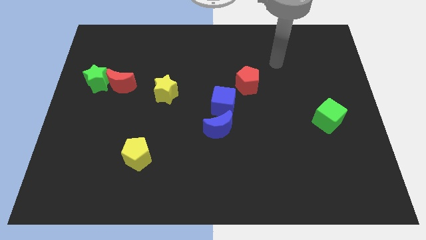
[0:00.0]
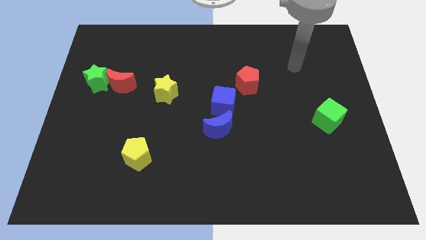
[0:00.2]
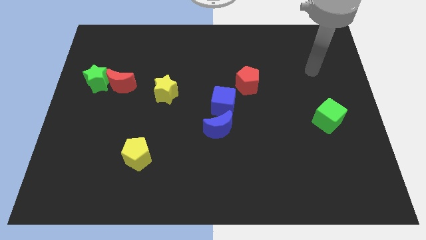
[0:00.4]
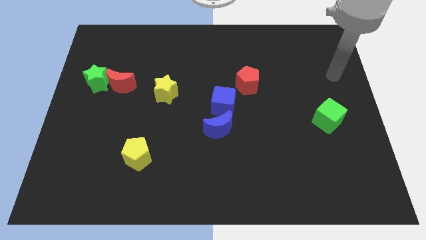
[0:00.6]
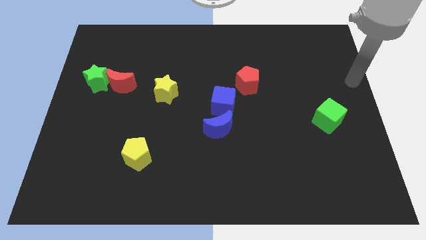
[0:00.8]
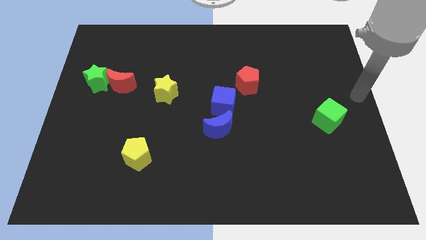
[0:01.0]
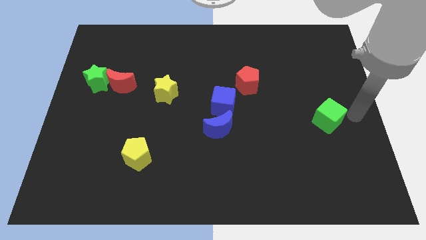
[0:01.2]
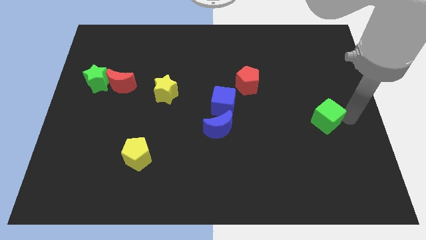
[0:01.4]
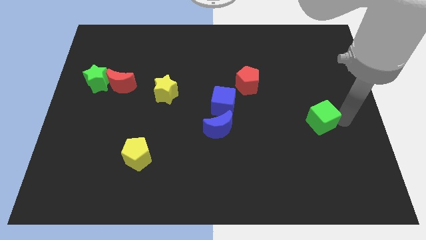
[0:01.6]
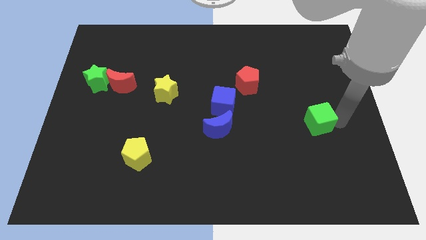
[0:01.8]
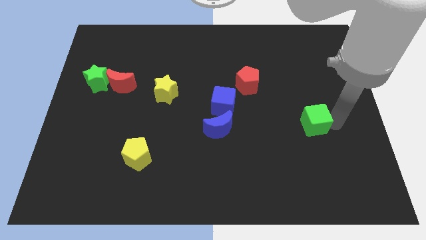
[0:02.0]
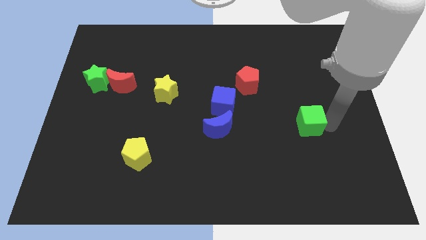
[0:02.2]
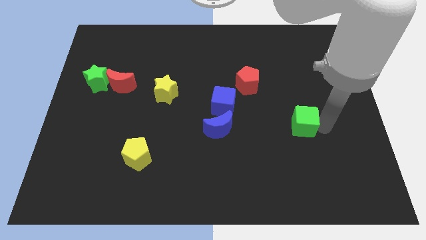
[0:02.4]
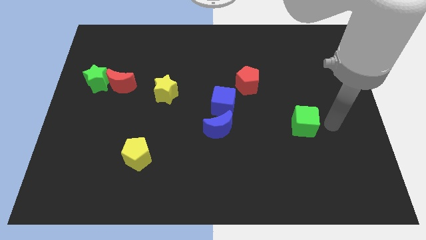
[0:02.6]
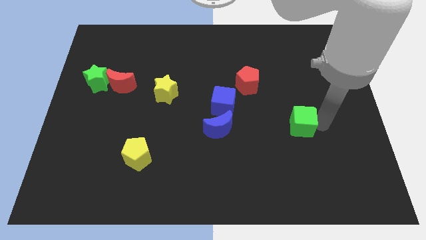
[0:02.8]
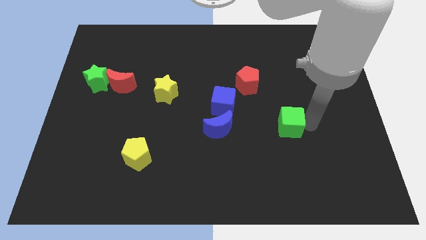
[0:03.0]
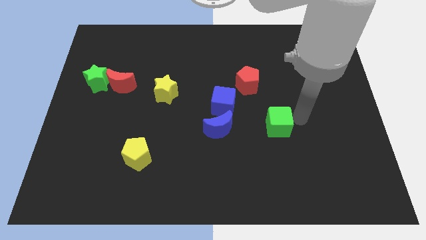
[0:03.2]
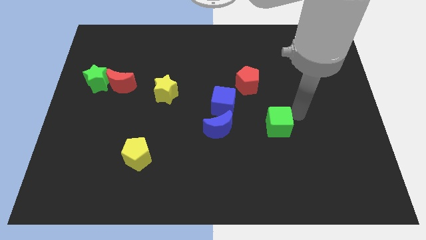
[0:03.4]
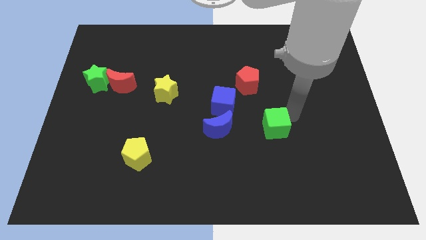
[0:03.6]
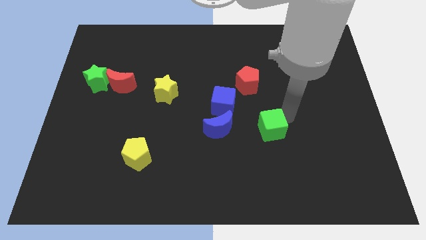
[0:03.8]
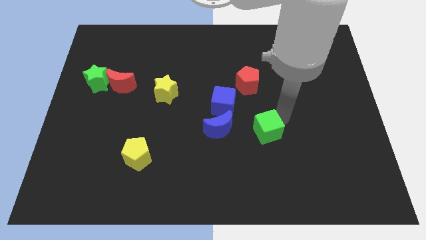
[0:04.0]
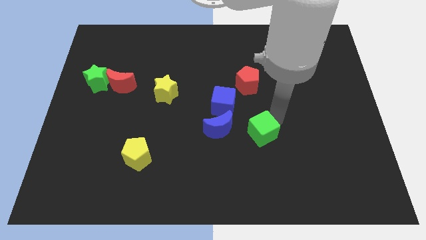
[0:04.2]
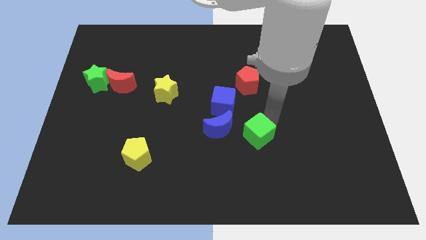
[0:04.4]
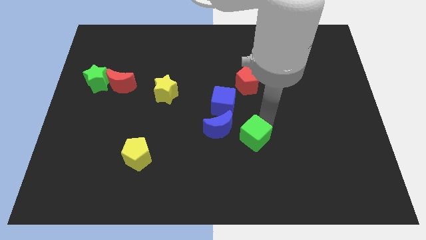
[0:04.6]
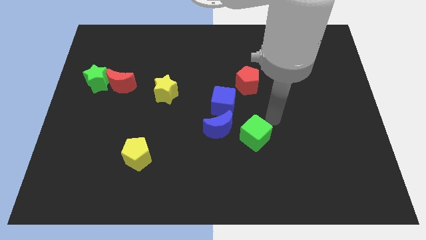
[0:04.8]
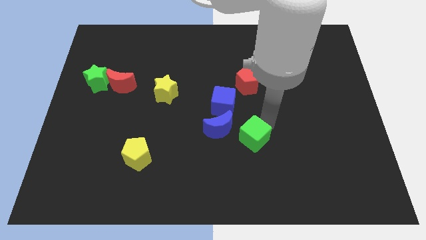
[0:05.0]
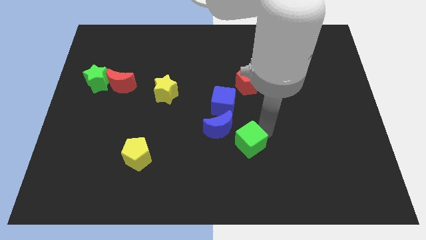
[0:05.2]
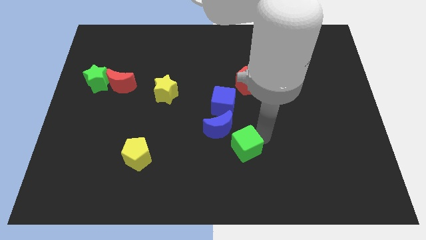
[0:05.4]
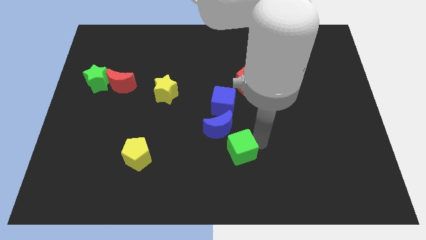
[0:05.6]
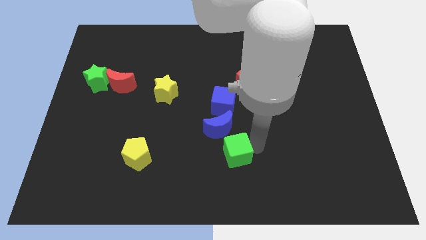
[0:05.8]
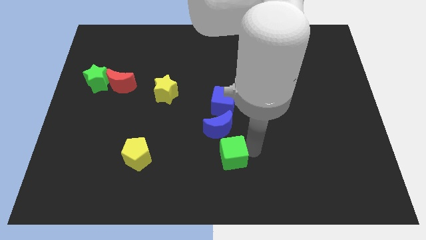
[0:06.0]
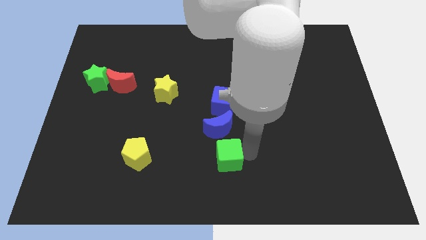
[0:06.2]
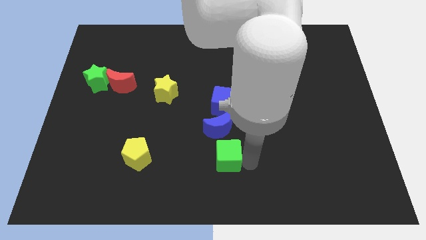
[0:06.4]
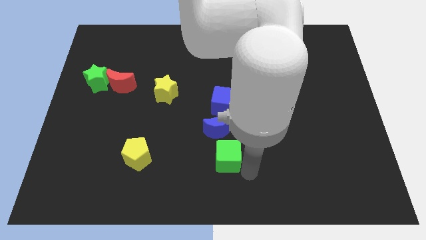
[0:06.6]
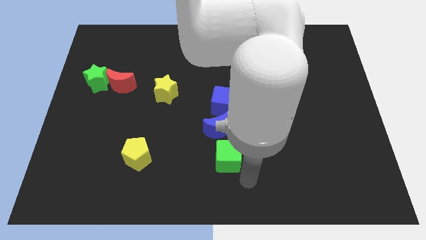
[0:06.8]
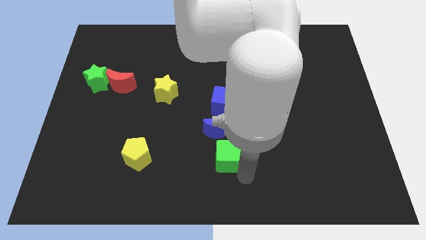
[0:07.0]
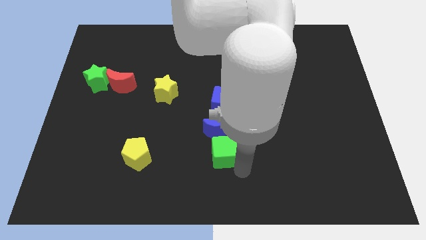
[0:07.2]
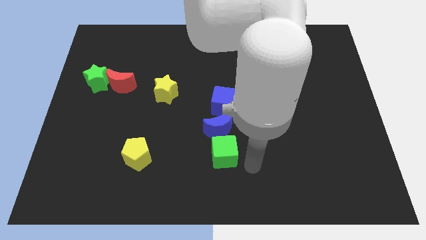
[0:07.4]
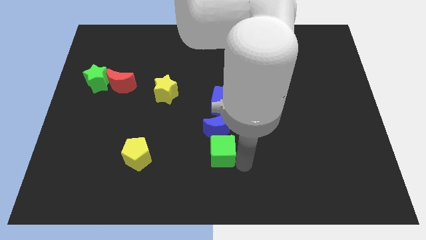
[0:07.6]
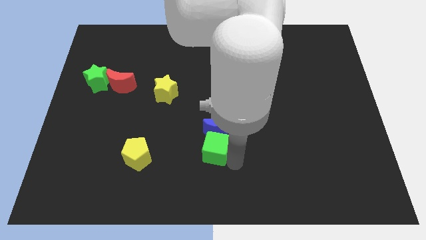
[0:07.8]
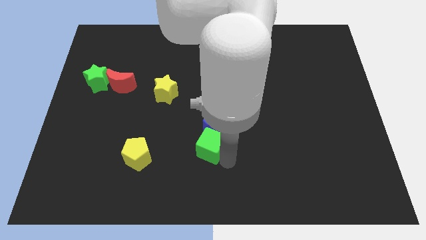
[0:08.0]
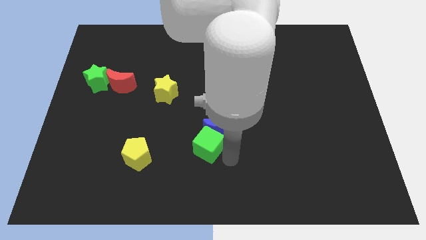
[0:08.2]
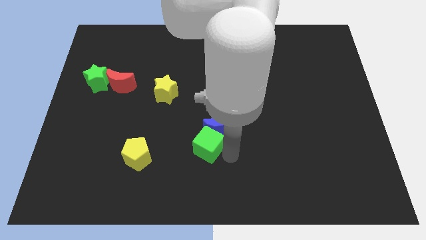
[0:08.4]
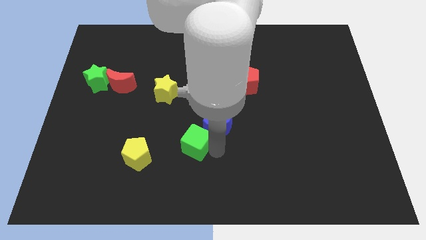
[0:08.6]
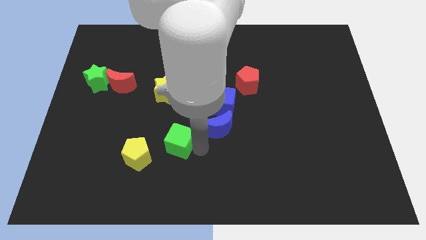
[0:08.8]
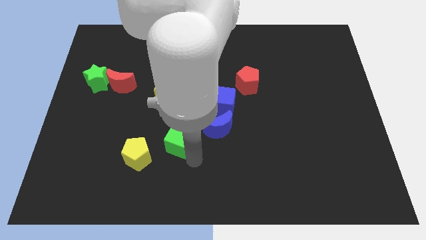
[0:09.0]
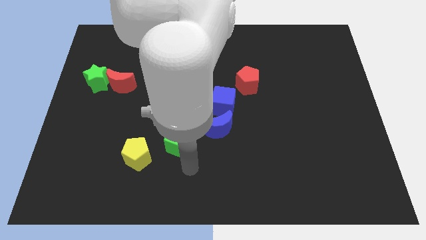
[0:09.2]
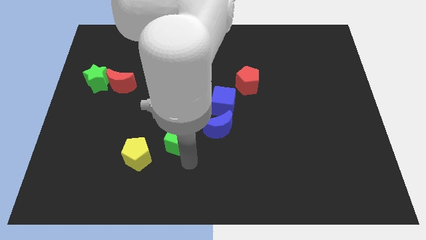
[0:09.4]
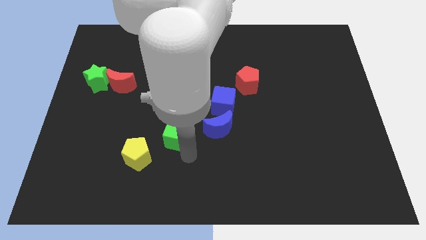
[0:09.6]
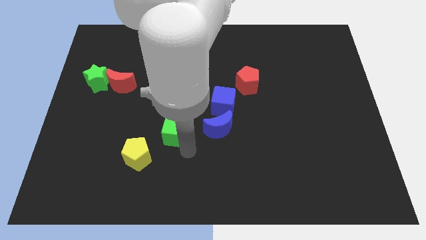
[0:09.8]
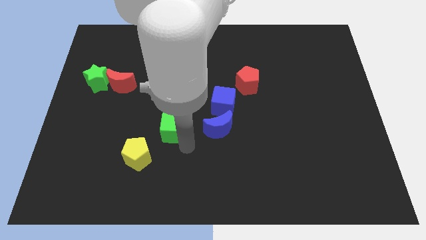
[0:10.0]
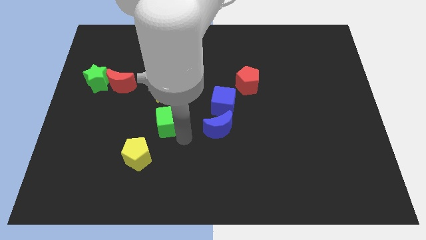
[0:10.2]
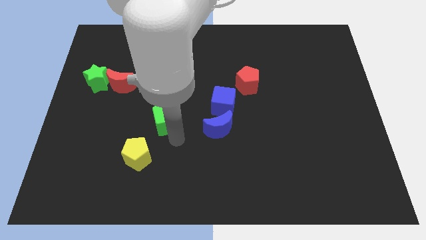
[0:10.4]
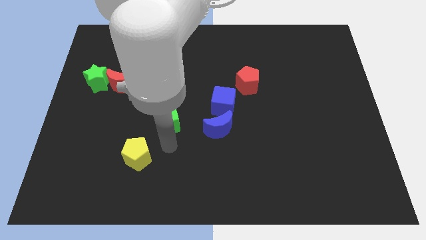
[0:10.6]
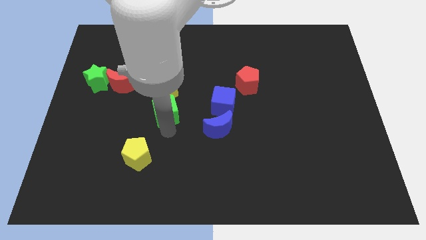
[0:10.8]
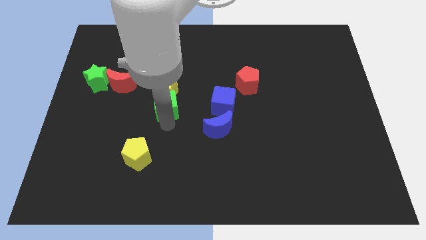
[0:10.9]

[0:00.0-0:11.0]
put the green cube towards the yellow star

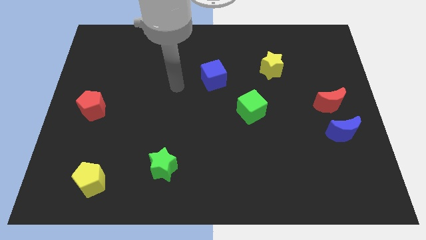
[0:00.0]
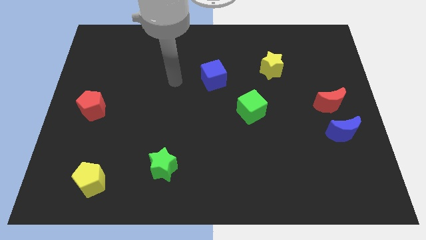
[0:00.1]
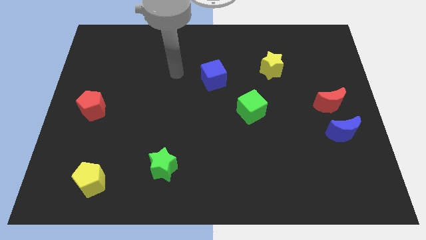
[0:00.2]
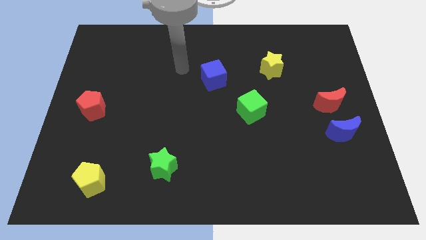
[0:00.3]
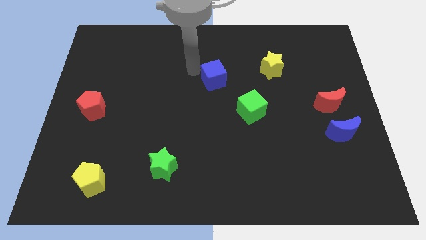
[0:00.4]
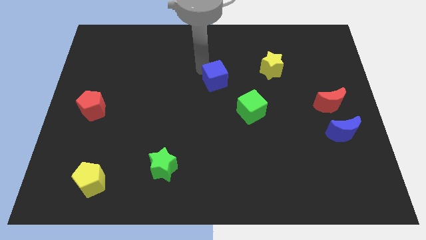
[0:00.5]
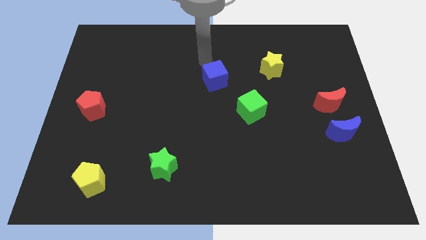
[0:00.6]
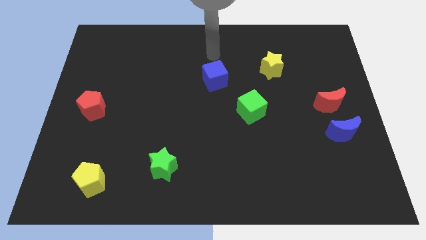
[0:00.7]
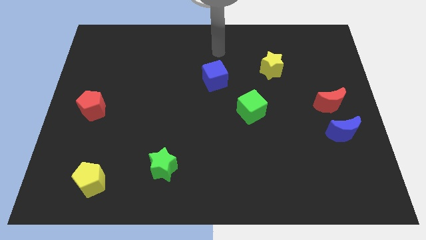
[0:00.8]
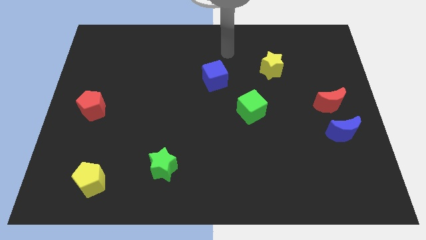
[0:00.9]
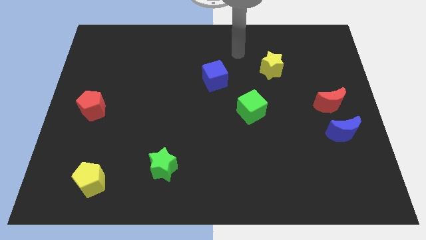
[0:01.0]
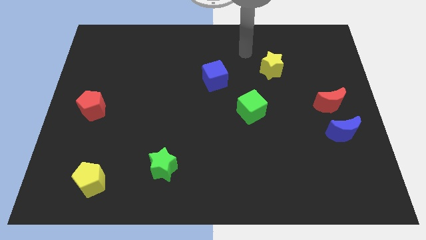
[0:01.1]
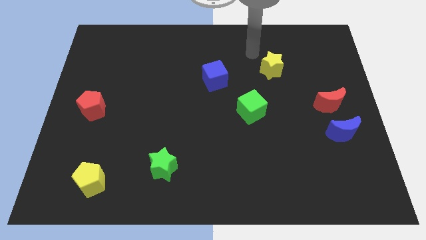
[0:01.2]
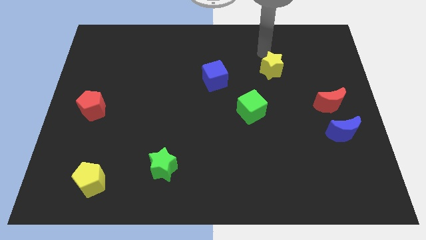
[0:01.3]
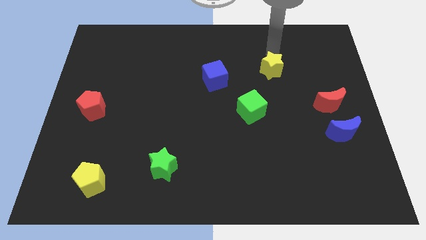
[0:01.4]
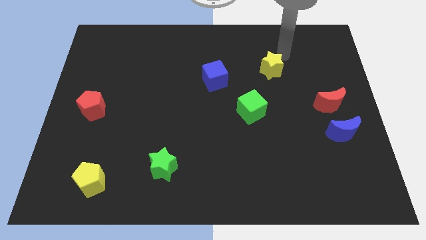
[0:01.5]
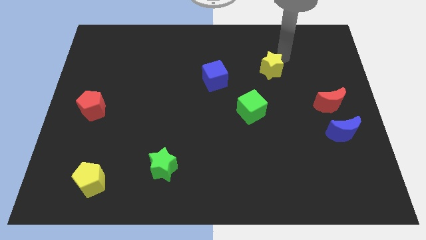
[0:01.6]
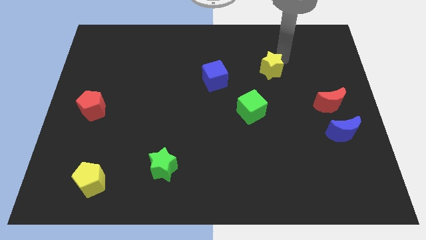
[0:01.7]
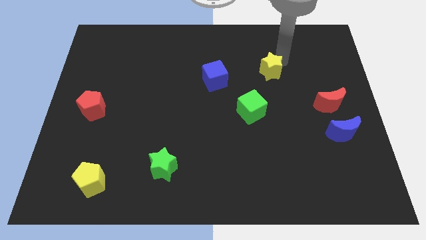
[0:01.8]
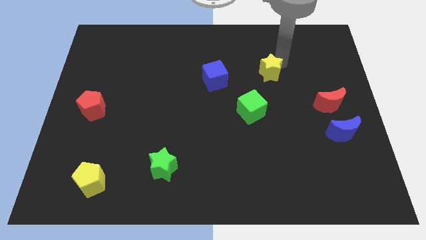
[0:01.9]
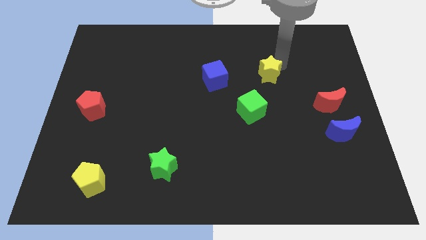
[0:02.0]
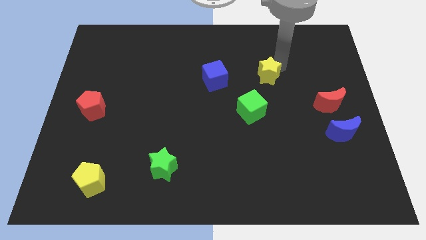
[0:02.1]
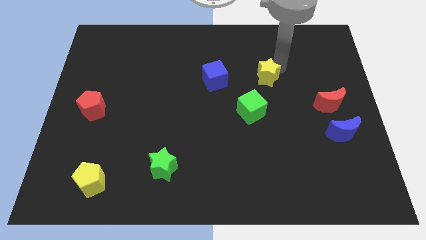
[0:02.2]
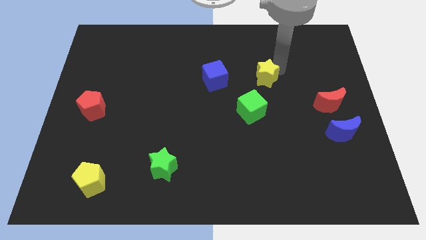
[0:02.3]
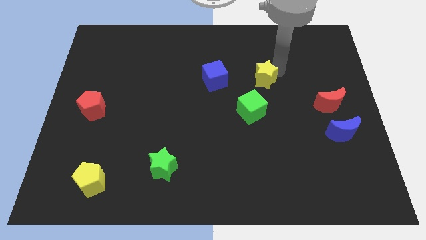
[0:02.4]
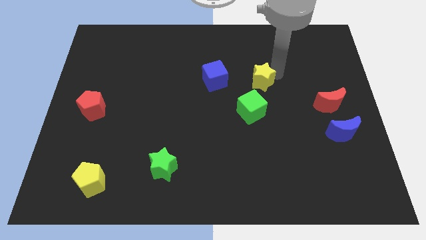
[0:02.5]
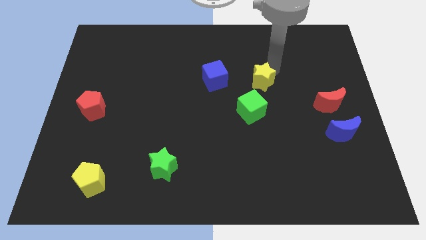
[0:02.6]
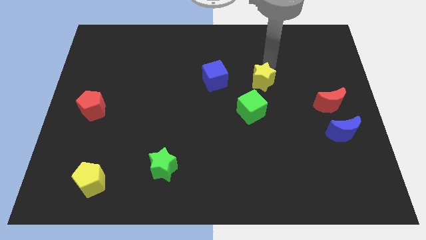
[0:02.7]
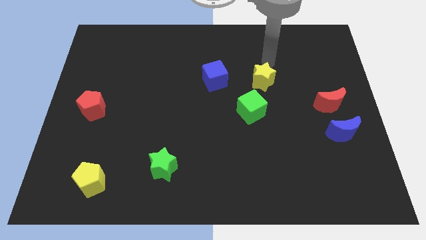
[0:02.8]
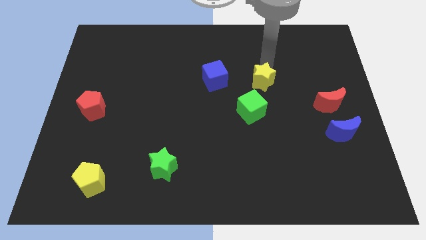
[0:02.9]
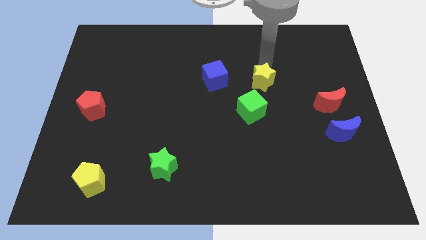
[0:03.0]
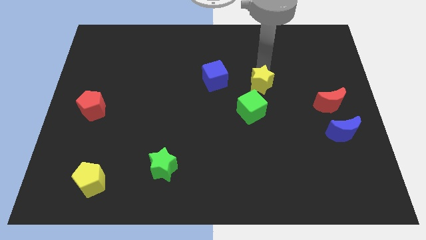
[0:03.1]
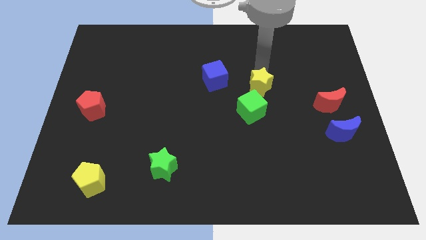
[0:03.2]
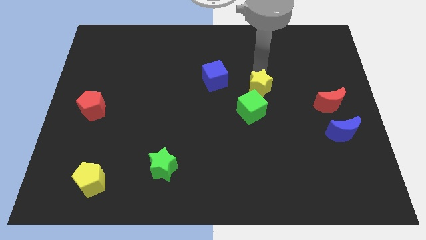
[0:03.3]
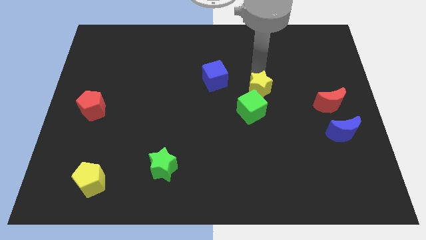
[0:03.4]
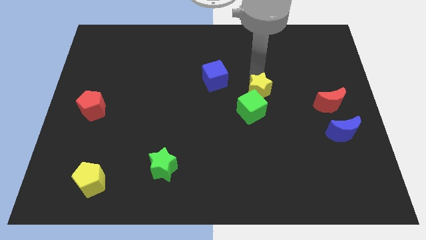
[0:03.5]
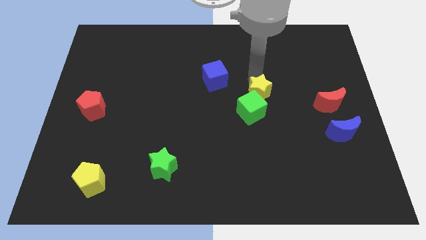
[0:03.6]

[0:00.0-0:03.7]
push the yellow star towards the green cube
